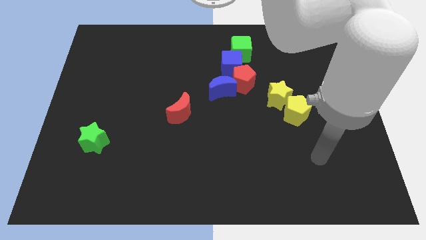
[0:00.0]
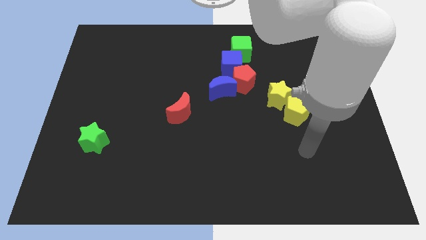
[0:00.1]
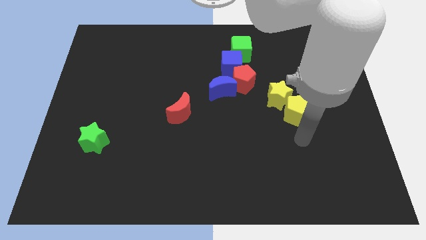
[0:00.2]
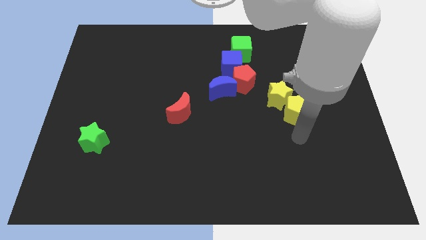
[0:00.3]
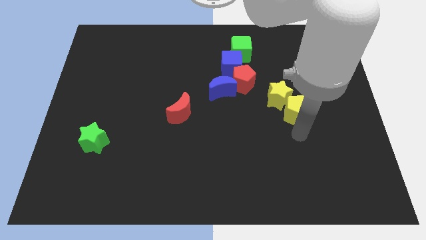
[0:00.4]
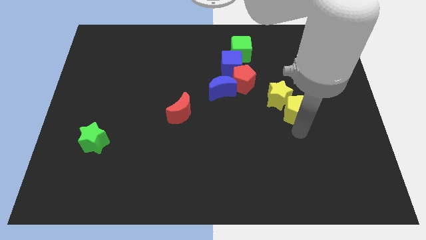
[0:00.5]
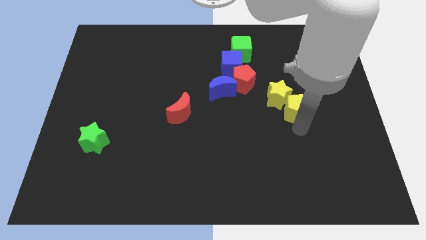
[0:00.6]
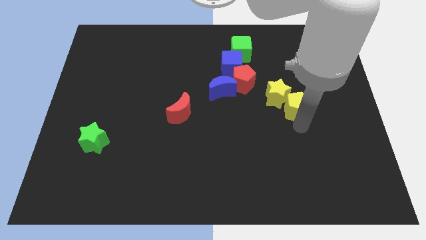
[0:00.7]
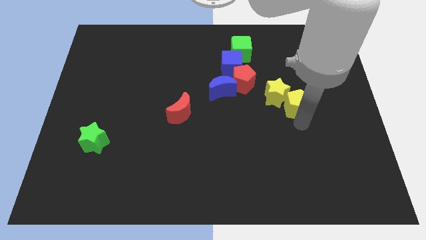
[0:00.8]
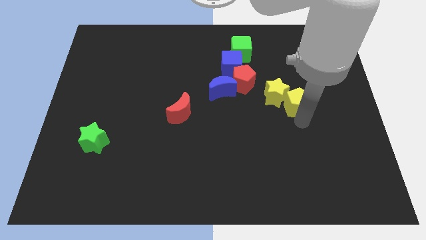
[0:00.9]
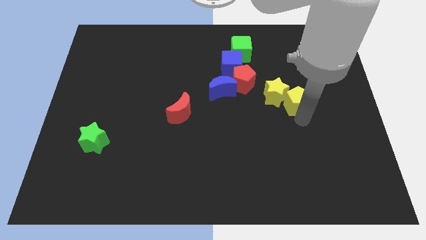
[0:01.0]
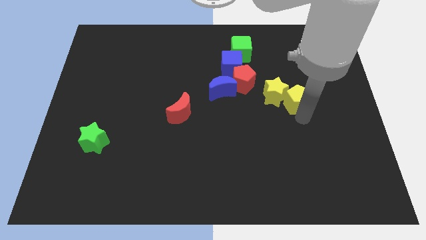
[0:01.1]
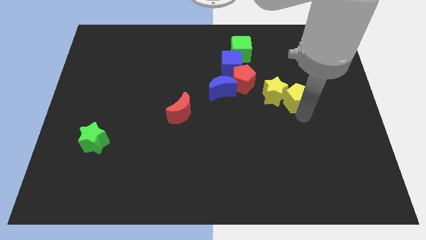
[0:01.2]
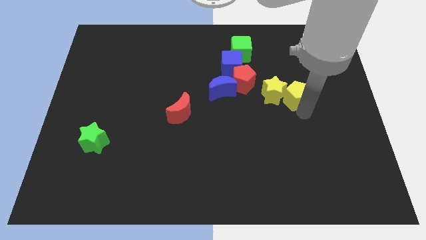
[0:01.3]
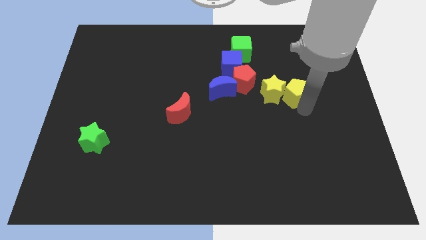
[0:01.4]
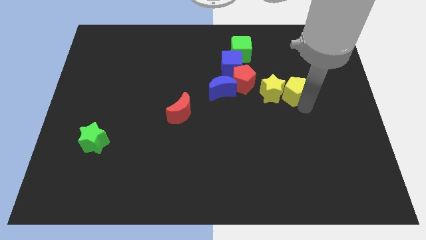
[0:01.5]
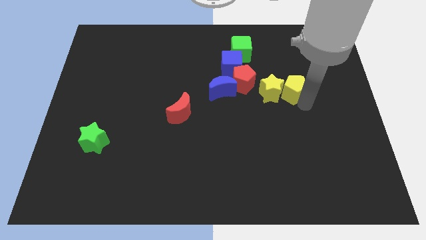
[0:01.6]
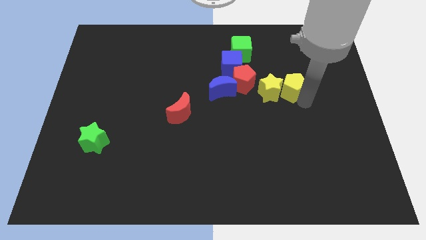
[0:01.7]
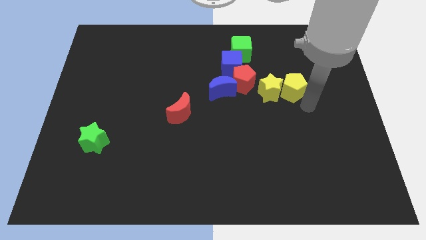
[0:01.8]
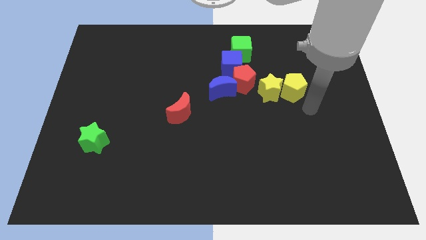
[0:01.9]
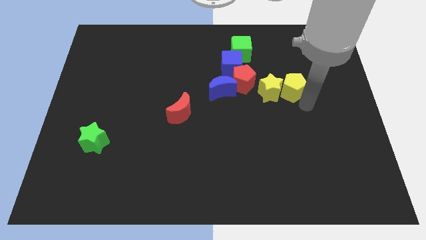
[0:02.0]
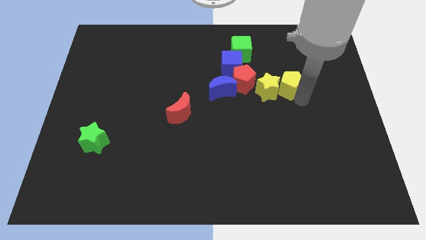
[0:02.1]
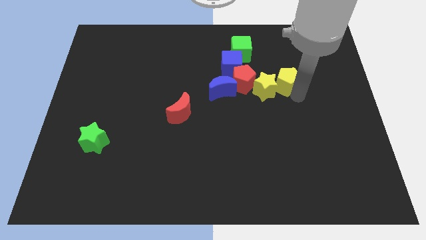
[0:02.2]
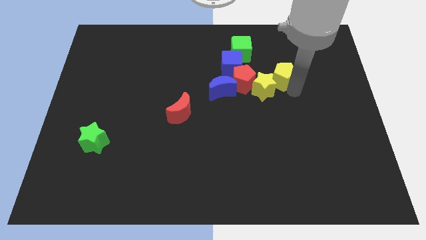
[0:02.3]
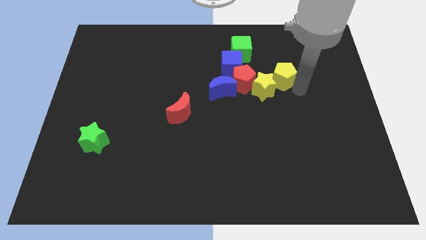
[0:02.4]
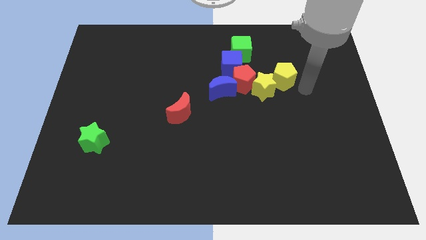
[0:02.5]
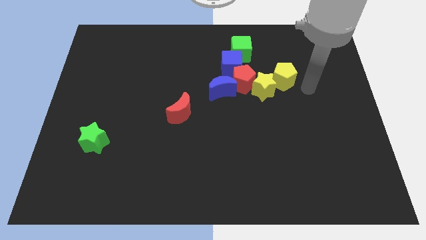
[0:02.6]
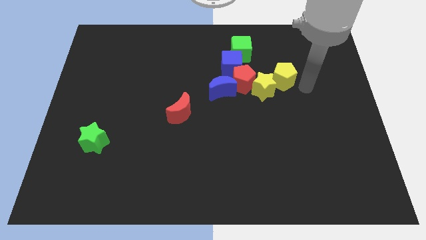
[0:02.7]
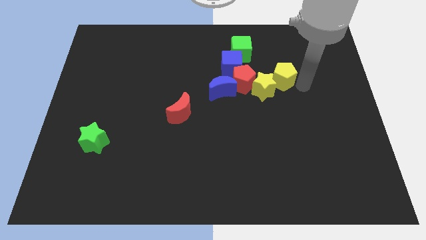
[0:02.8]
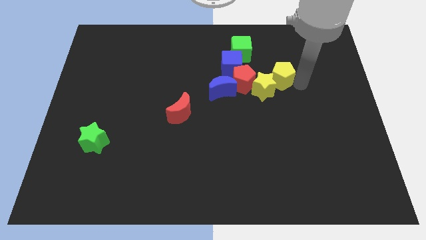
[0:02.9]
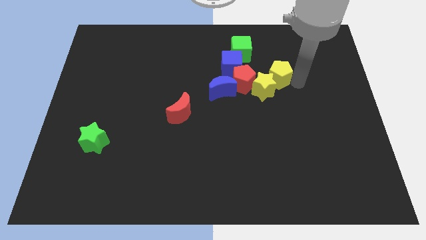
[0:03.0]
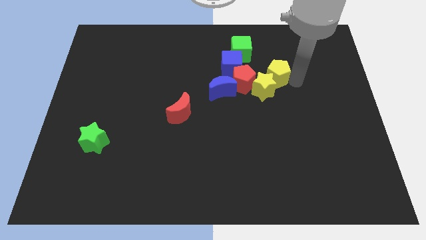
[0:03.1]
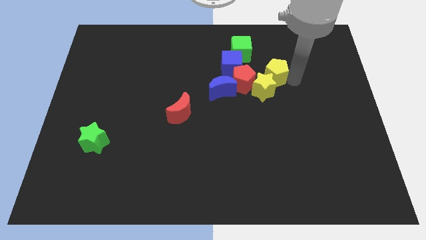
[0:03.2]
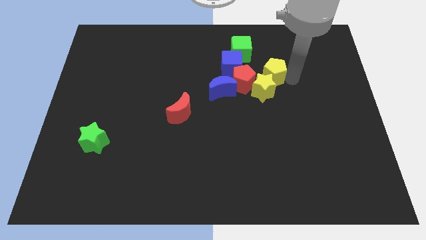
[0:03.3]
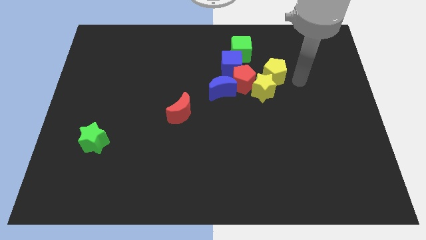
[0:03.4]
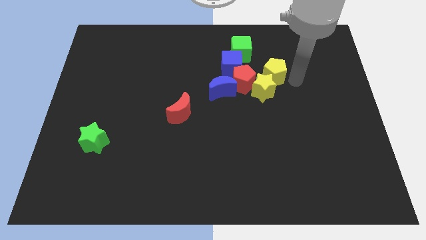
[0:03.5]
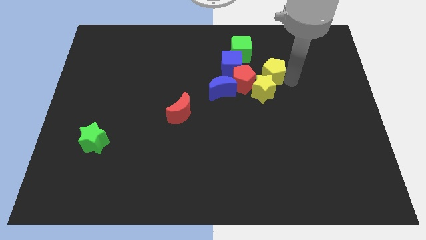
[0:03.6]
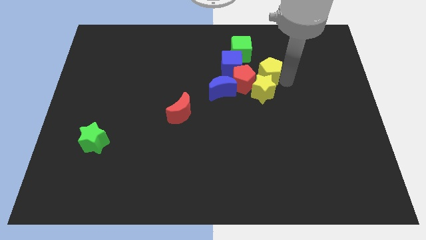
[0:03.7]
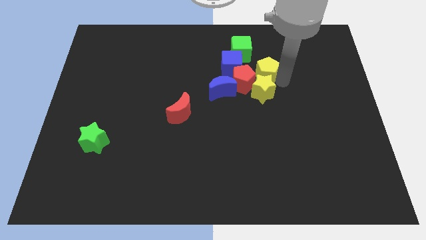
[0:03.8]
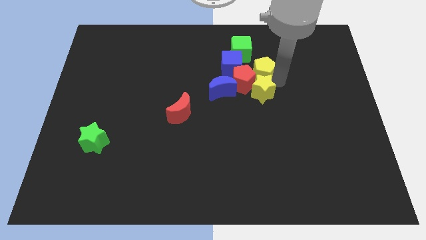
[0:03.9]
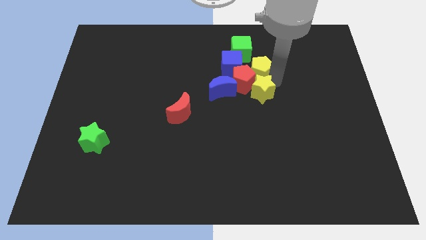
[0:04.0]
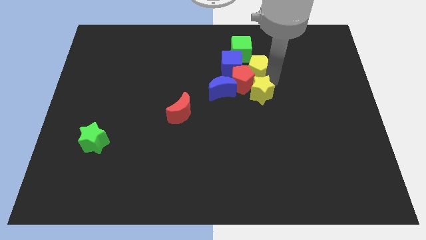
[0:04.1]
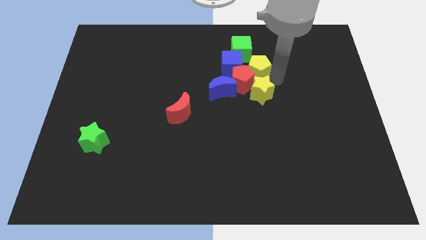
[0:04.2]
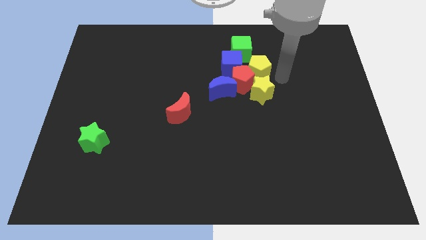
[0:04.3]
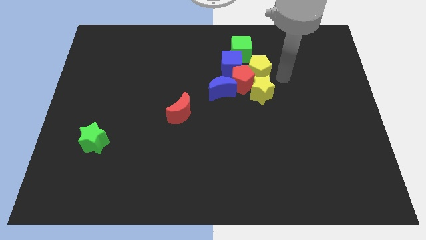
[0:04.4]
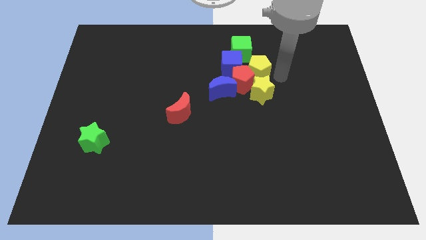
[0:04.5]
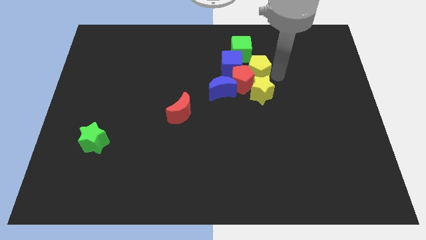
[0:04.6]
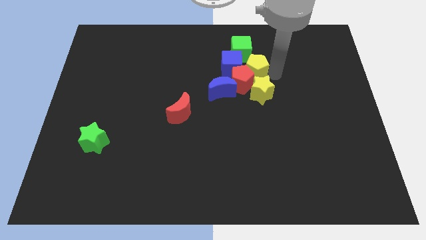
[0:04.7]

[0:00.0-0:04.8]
move the yellow pentagon towards the blue cube

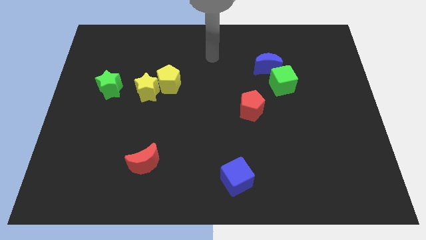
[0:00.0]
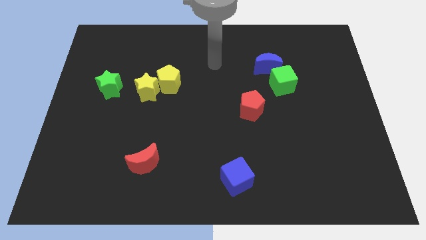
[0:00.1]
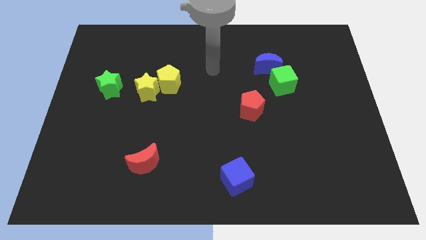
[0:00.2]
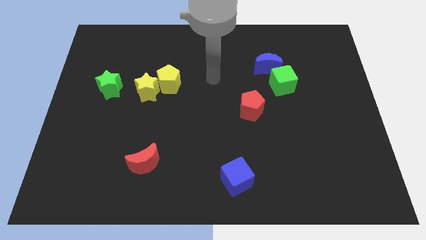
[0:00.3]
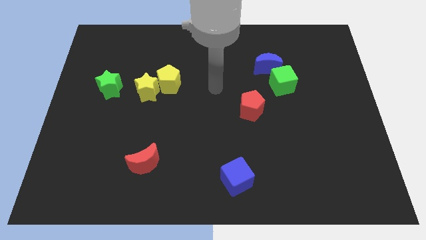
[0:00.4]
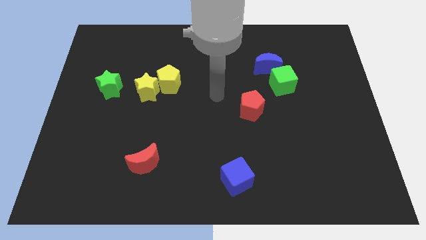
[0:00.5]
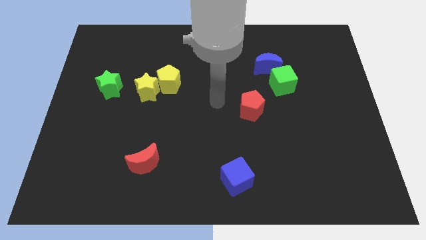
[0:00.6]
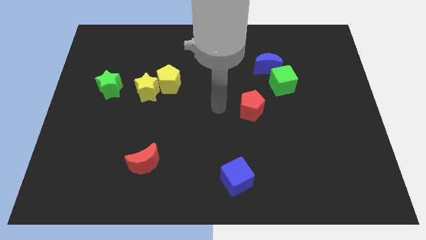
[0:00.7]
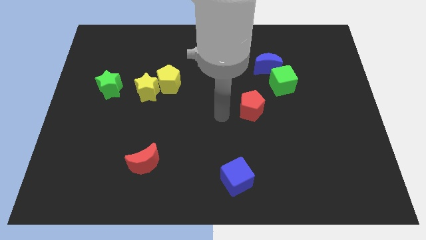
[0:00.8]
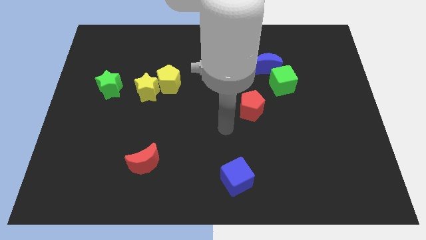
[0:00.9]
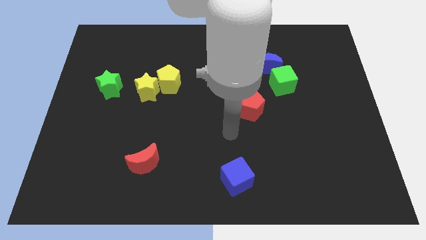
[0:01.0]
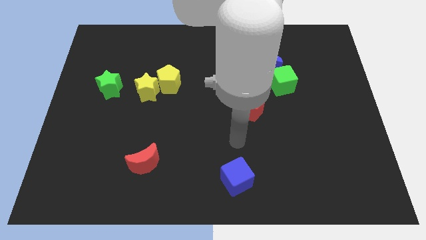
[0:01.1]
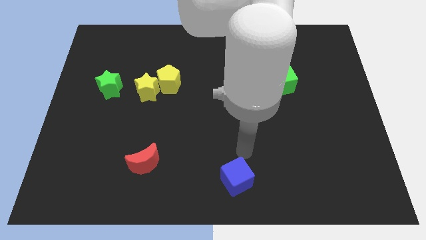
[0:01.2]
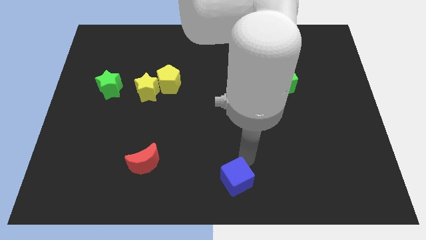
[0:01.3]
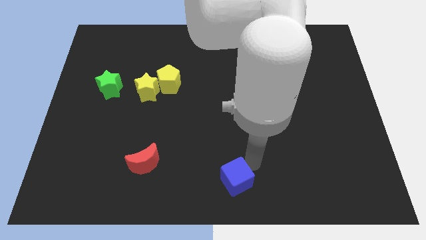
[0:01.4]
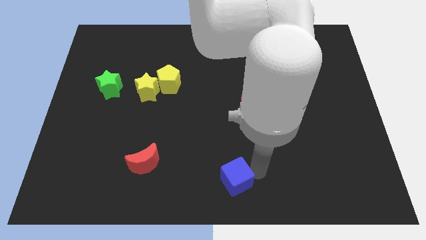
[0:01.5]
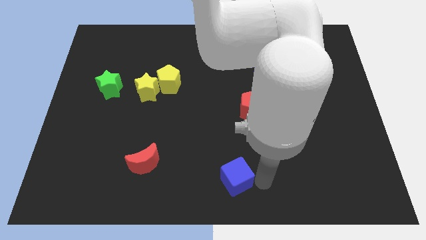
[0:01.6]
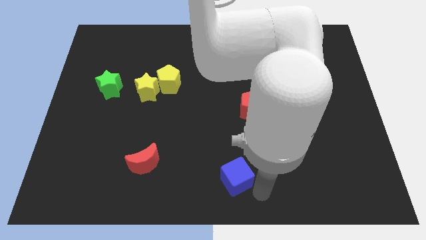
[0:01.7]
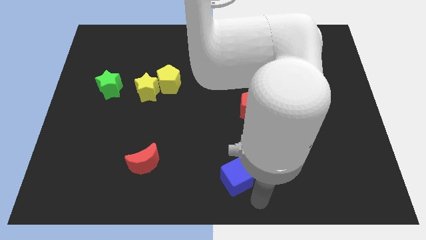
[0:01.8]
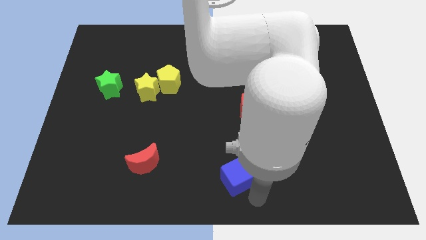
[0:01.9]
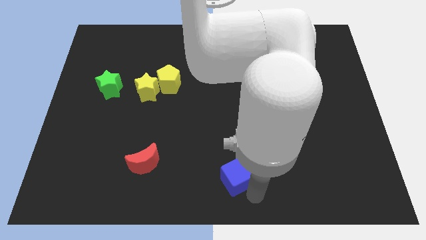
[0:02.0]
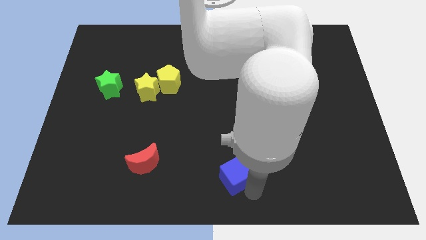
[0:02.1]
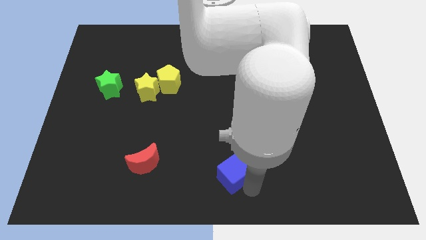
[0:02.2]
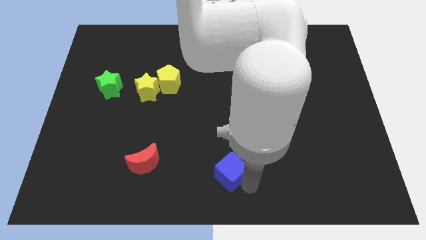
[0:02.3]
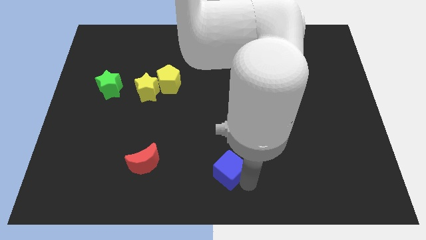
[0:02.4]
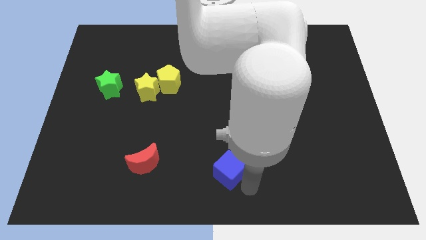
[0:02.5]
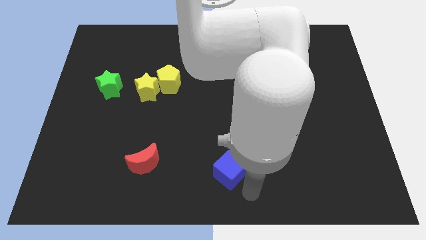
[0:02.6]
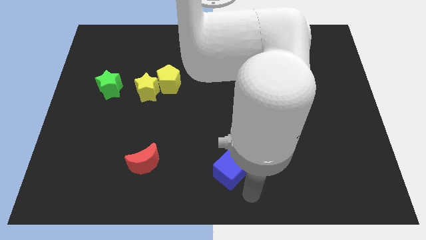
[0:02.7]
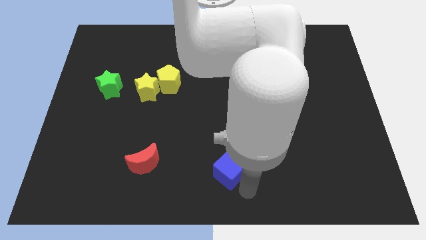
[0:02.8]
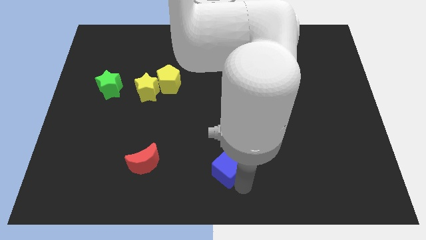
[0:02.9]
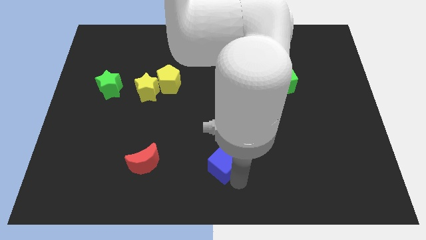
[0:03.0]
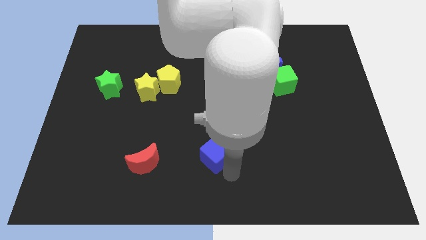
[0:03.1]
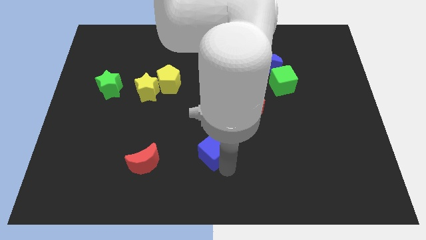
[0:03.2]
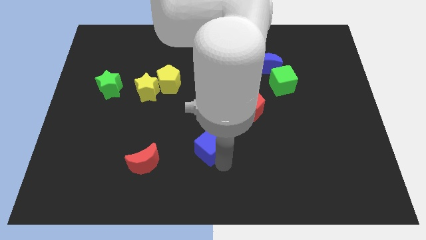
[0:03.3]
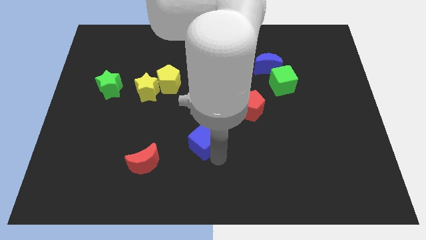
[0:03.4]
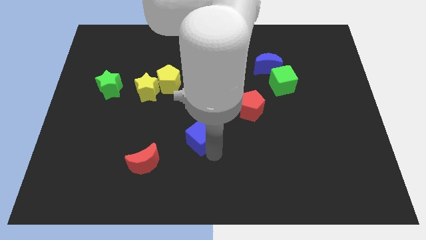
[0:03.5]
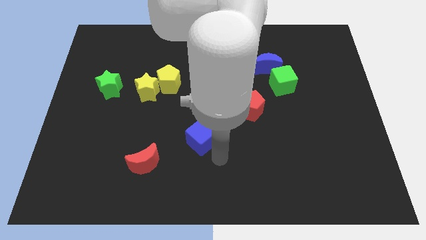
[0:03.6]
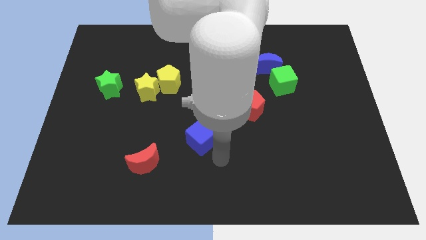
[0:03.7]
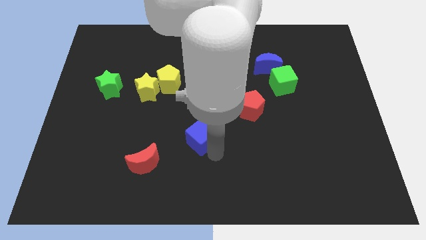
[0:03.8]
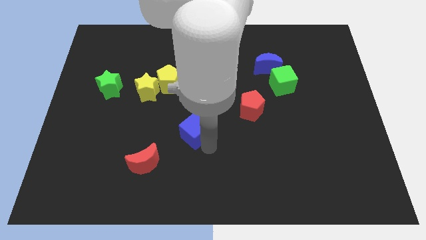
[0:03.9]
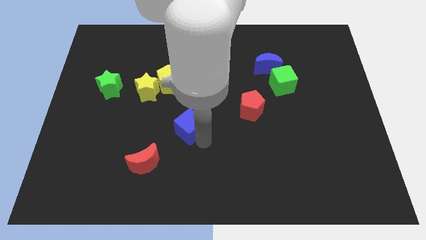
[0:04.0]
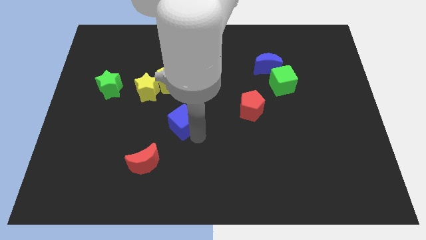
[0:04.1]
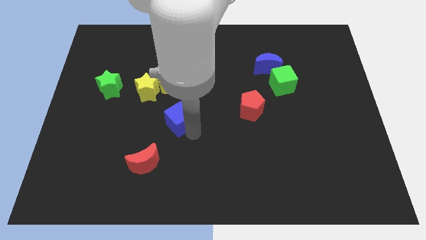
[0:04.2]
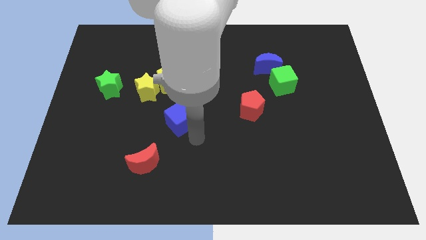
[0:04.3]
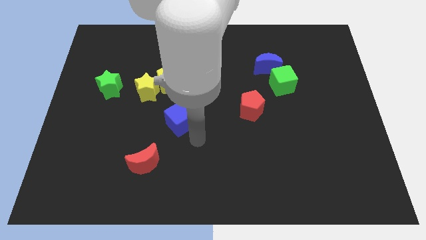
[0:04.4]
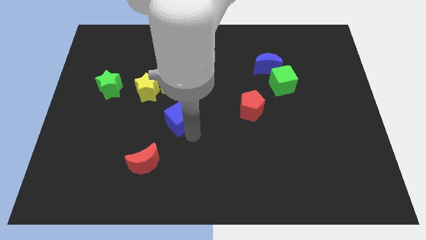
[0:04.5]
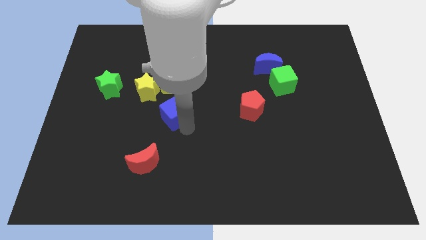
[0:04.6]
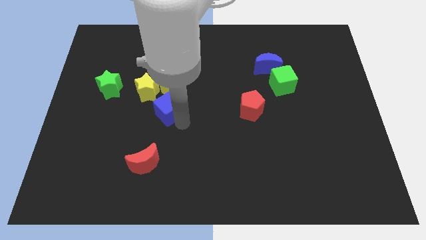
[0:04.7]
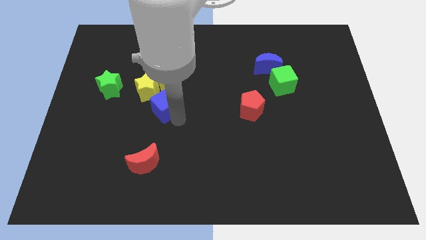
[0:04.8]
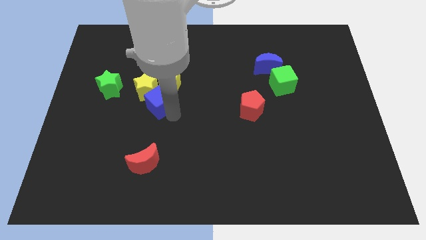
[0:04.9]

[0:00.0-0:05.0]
slide the blue cube close to the yellow star
